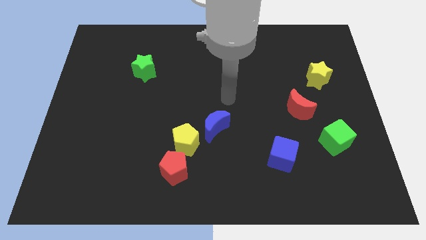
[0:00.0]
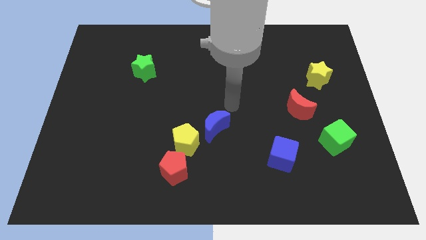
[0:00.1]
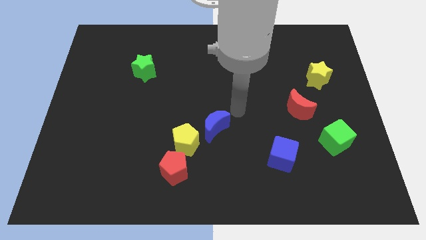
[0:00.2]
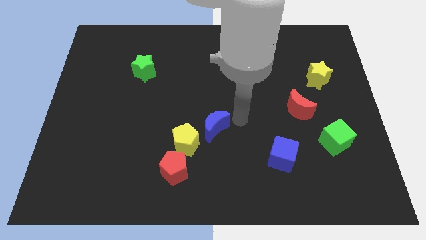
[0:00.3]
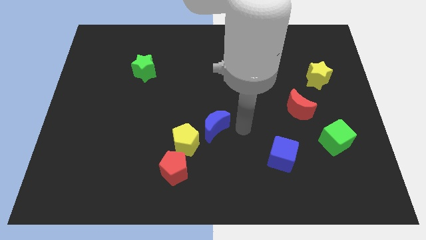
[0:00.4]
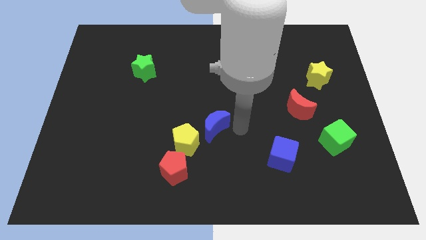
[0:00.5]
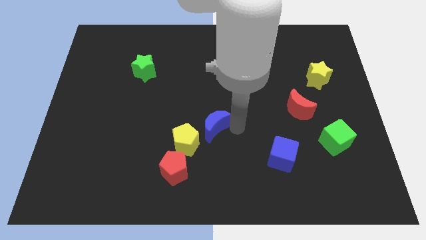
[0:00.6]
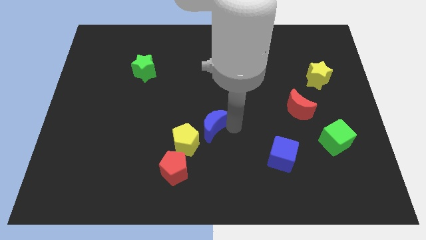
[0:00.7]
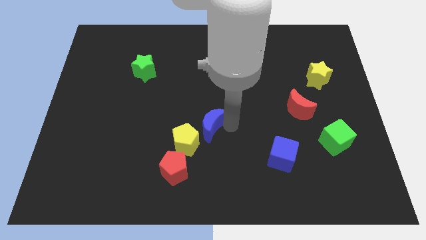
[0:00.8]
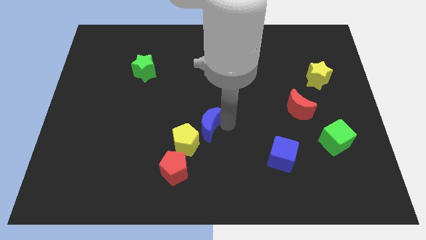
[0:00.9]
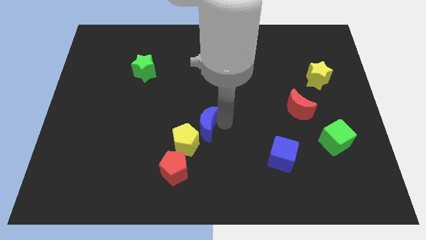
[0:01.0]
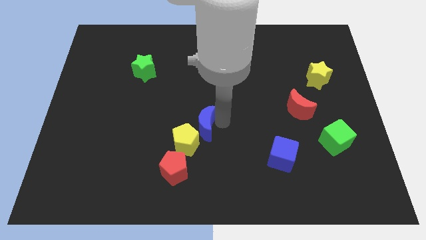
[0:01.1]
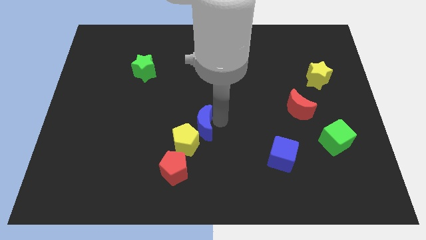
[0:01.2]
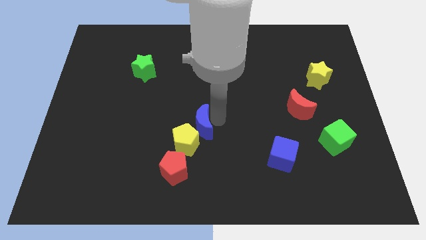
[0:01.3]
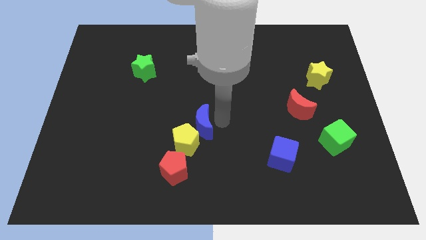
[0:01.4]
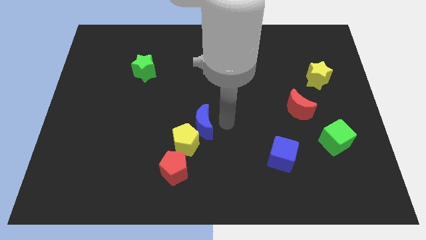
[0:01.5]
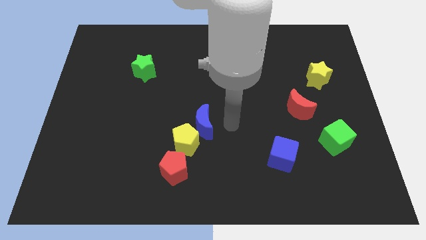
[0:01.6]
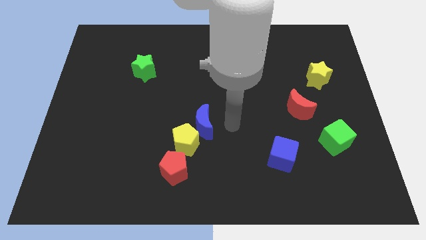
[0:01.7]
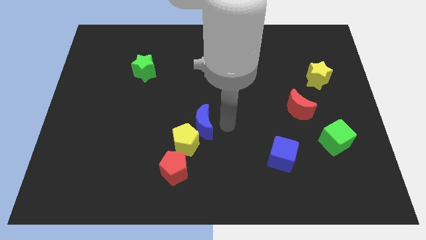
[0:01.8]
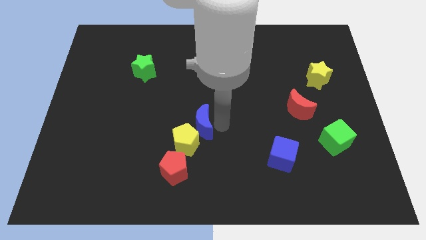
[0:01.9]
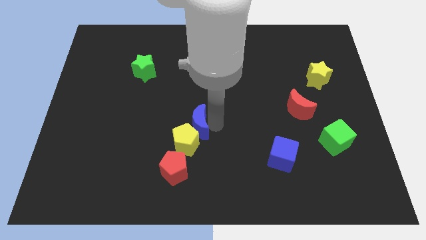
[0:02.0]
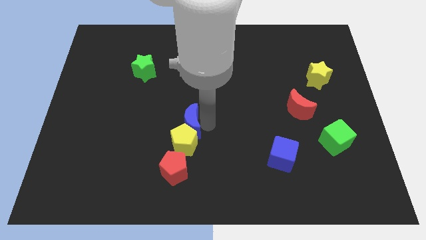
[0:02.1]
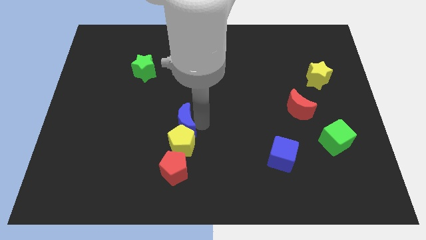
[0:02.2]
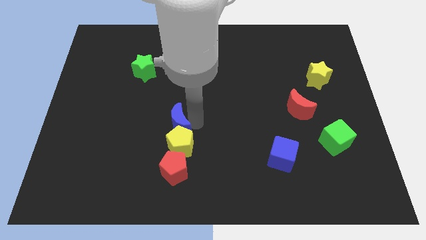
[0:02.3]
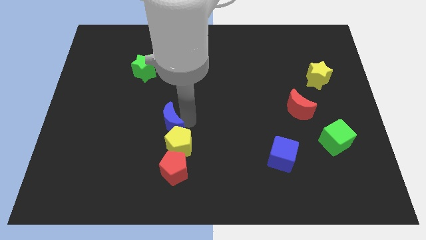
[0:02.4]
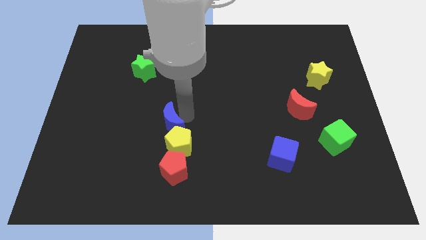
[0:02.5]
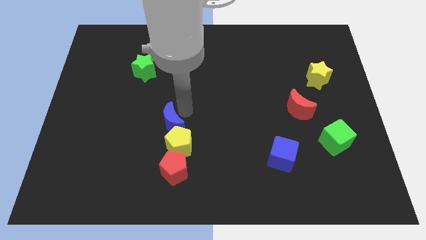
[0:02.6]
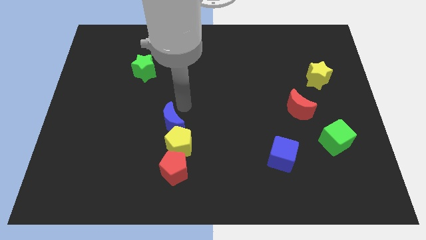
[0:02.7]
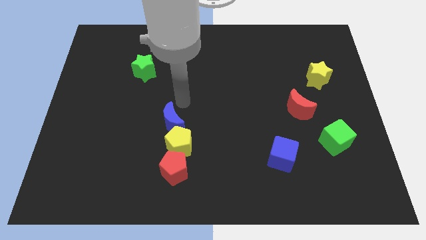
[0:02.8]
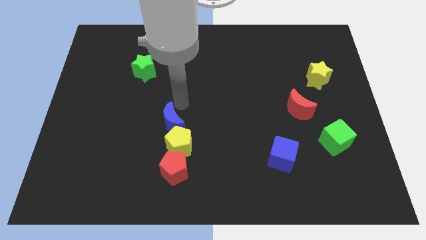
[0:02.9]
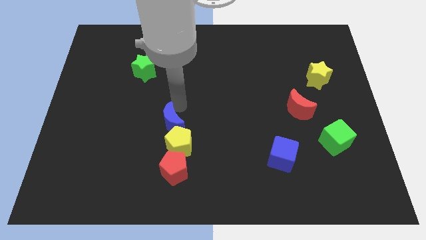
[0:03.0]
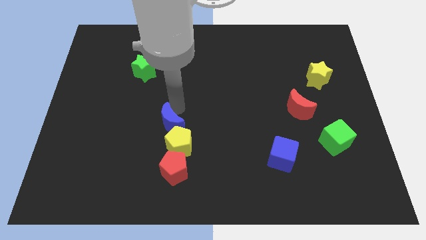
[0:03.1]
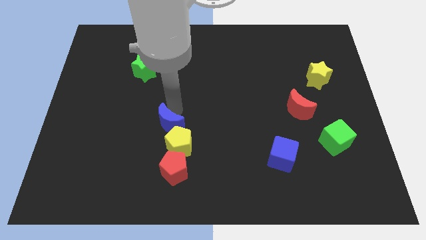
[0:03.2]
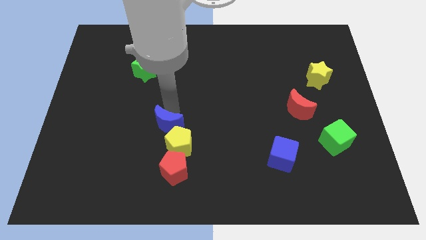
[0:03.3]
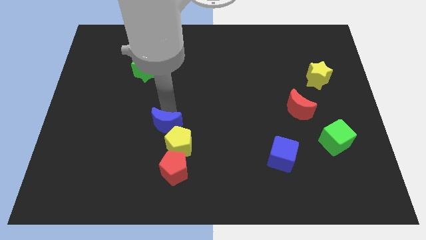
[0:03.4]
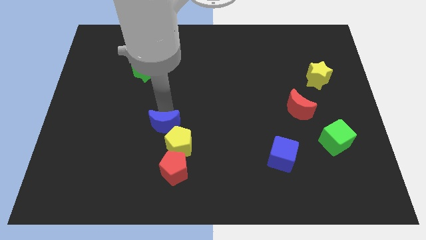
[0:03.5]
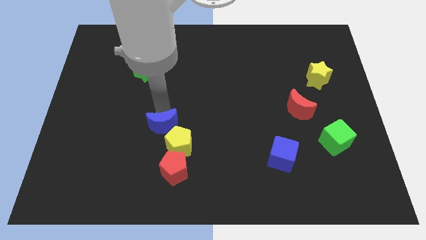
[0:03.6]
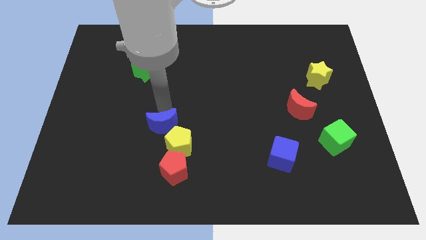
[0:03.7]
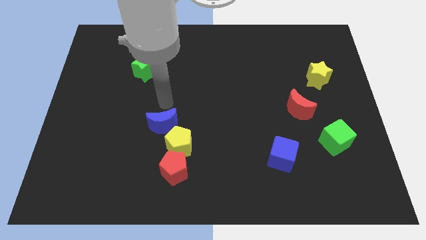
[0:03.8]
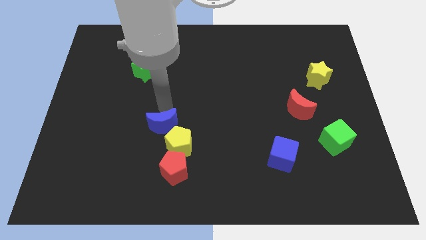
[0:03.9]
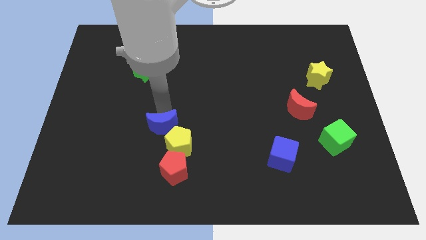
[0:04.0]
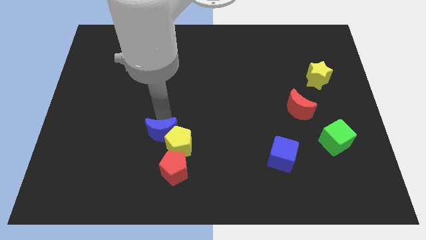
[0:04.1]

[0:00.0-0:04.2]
push the blue moon down and to the left diagonally a bit

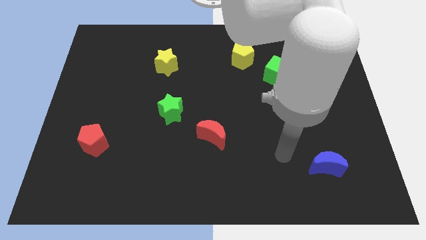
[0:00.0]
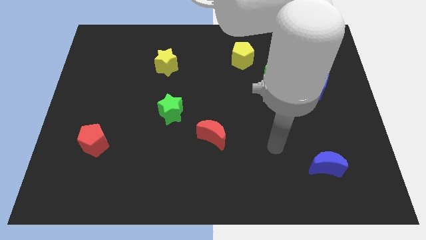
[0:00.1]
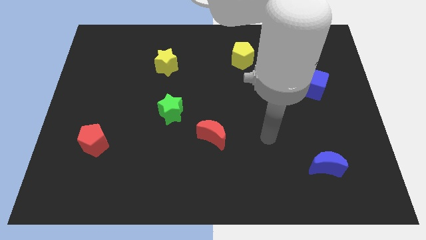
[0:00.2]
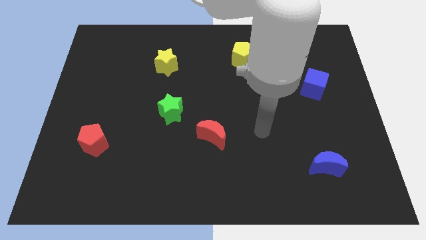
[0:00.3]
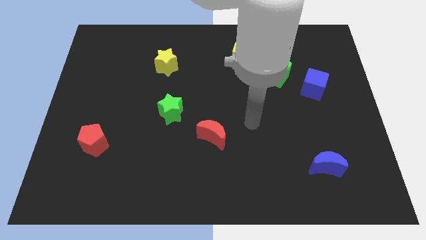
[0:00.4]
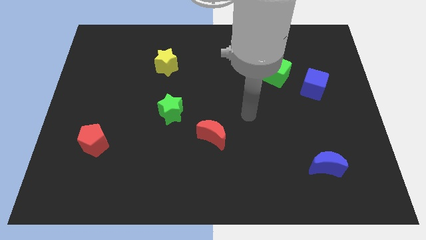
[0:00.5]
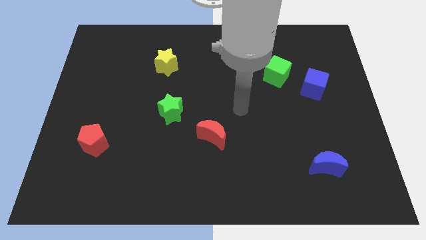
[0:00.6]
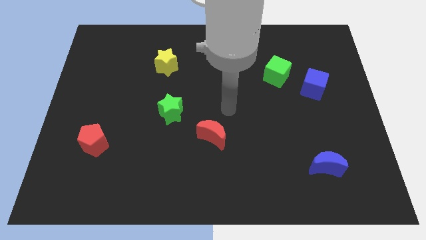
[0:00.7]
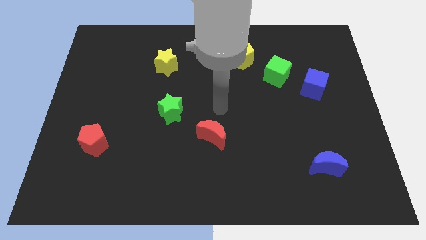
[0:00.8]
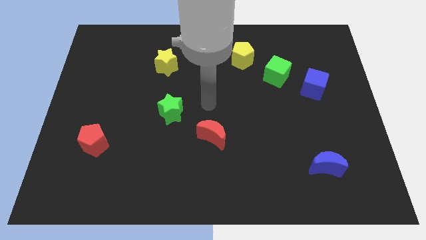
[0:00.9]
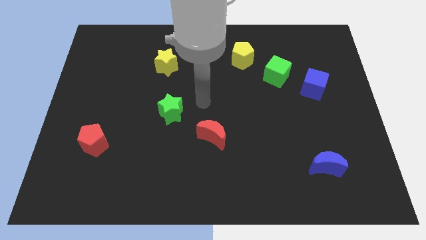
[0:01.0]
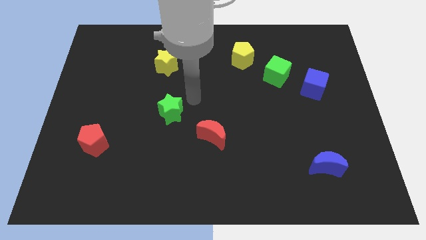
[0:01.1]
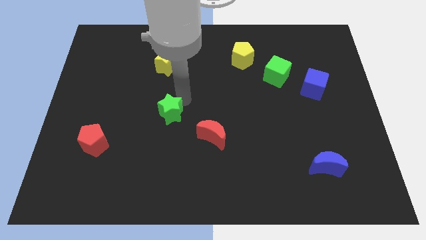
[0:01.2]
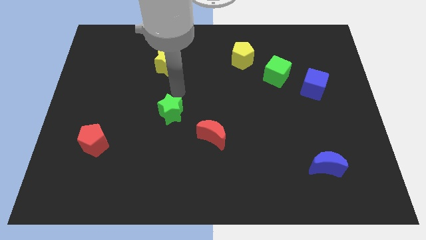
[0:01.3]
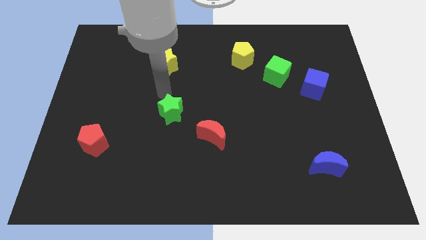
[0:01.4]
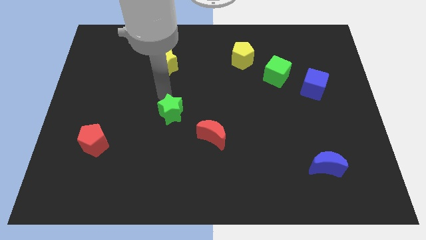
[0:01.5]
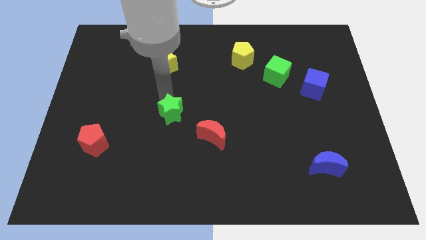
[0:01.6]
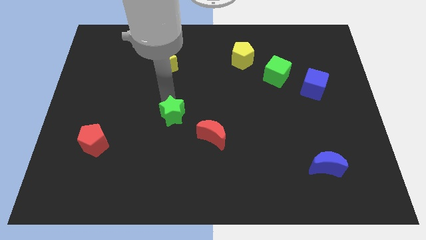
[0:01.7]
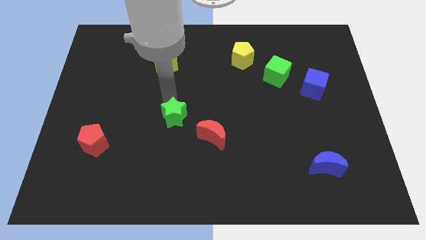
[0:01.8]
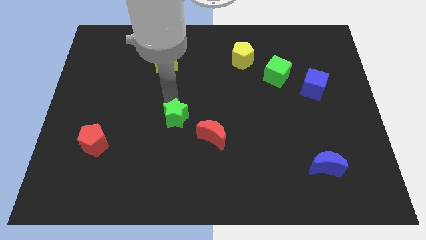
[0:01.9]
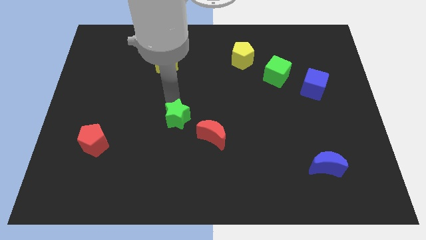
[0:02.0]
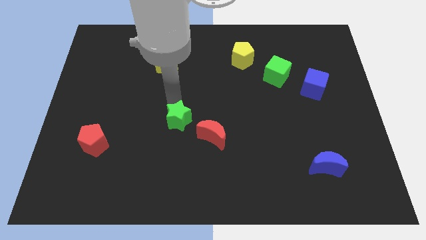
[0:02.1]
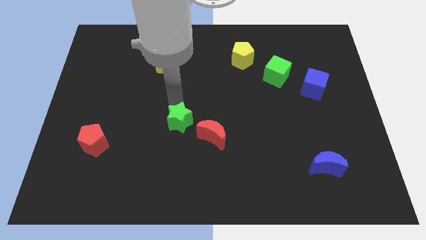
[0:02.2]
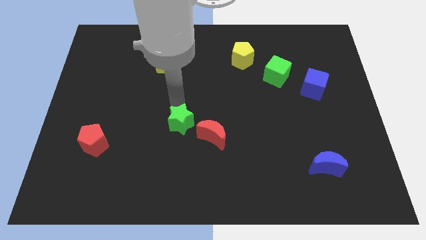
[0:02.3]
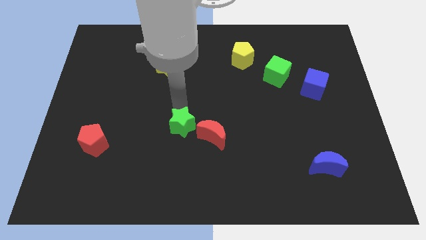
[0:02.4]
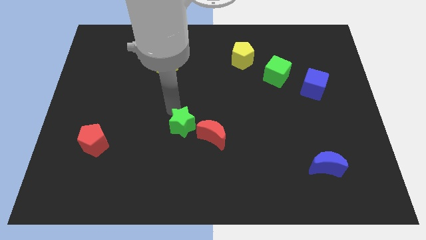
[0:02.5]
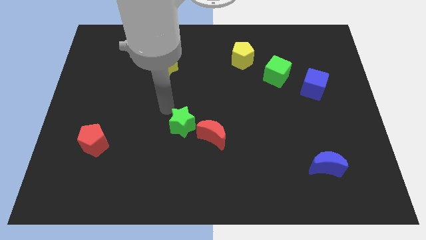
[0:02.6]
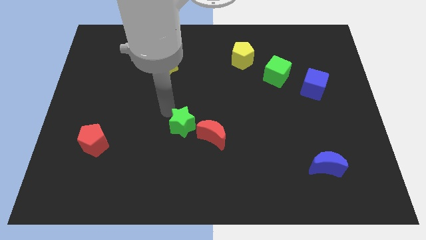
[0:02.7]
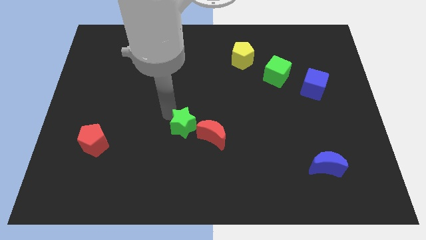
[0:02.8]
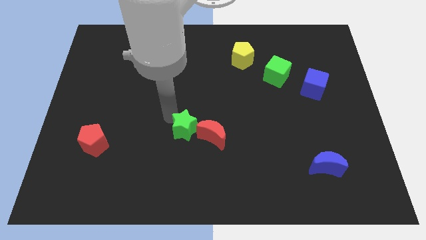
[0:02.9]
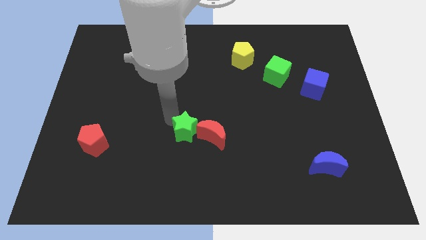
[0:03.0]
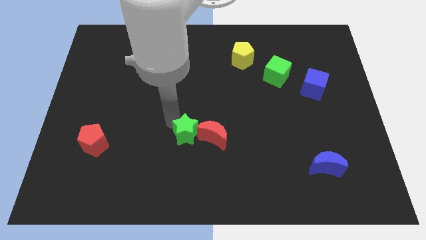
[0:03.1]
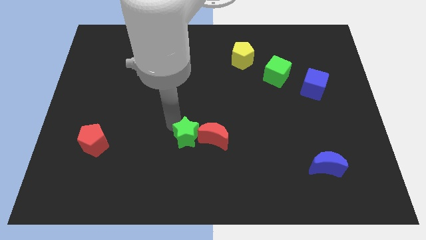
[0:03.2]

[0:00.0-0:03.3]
push the green star a little down and then to the right

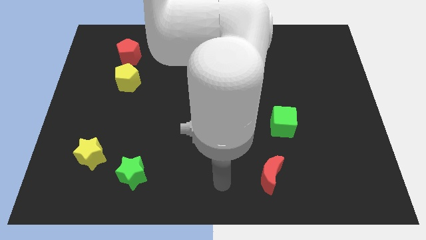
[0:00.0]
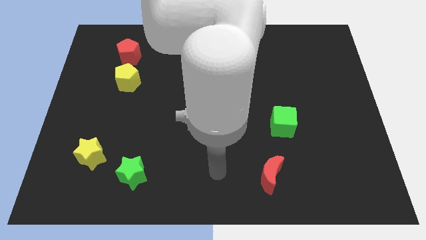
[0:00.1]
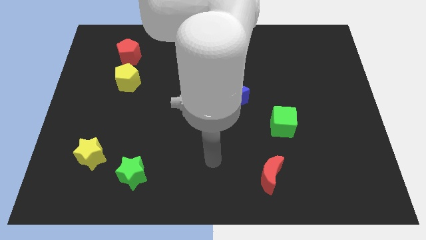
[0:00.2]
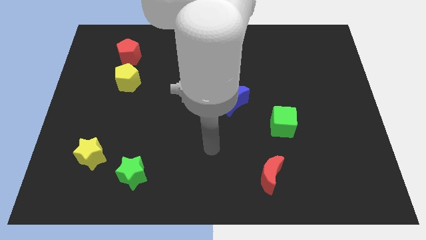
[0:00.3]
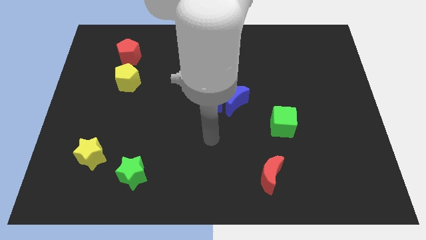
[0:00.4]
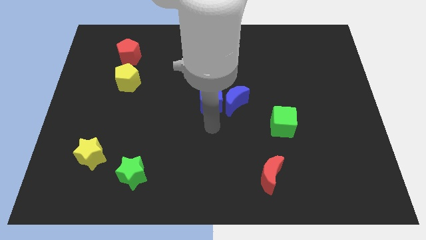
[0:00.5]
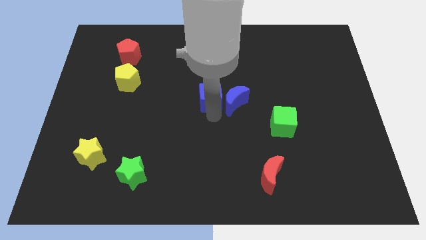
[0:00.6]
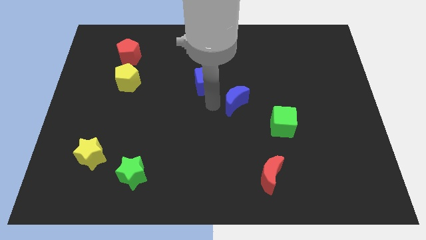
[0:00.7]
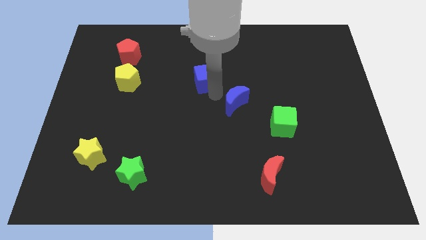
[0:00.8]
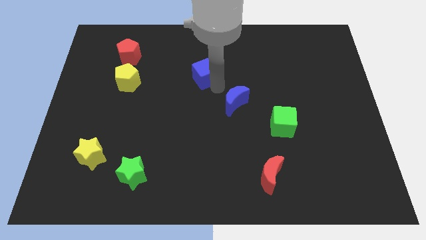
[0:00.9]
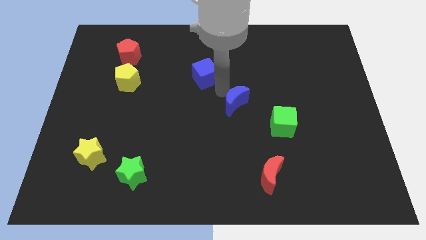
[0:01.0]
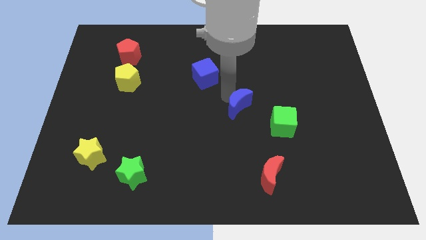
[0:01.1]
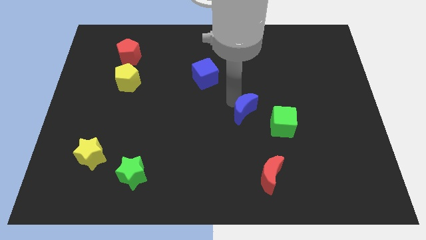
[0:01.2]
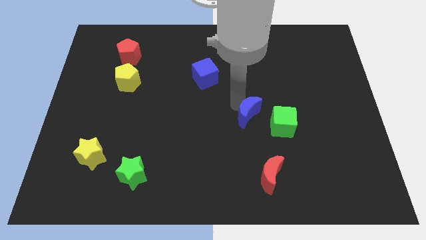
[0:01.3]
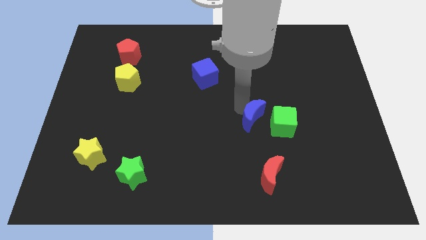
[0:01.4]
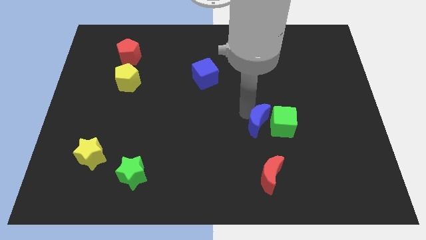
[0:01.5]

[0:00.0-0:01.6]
move the blue moon somewhat downwards and then right
